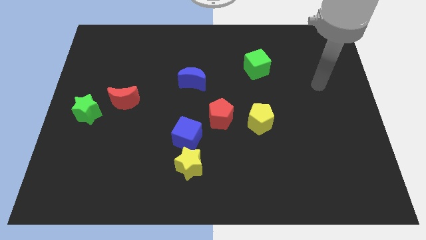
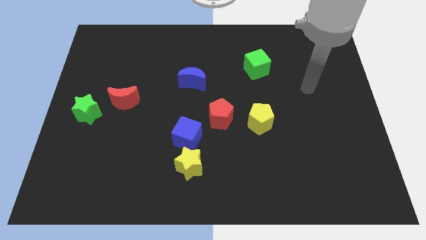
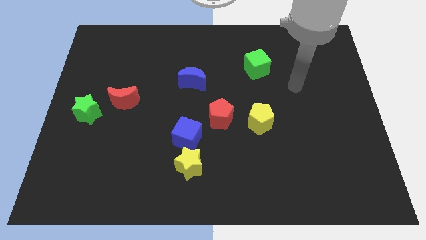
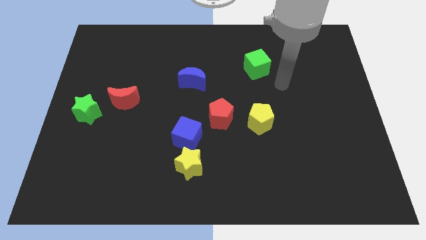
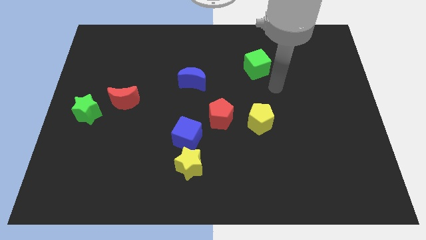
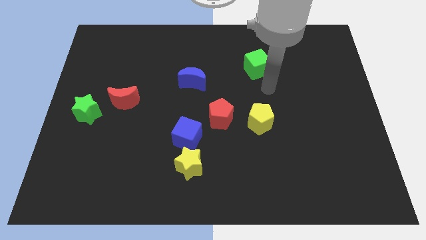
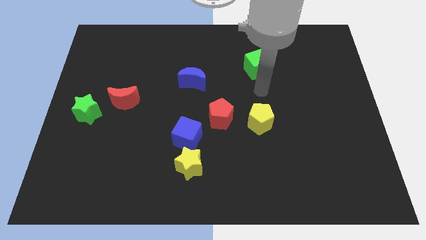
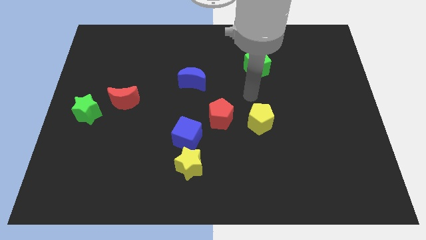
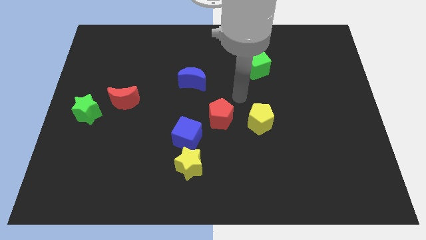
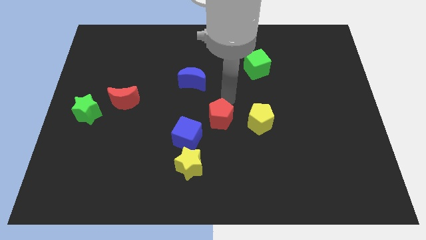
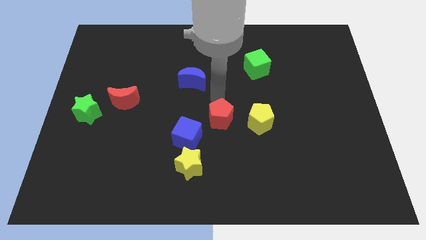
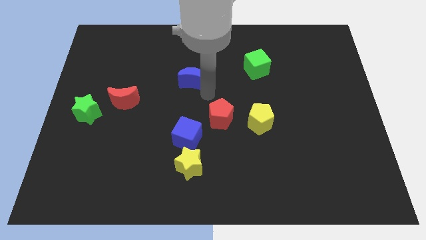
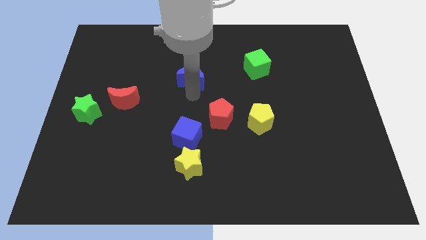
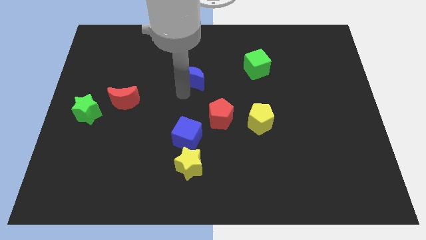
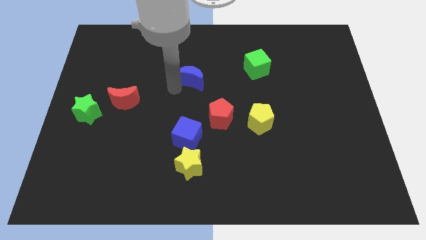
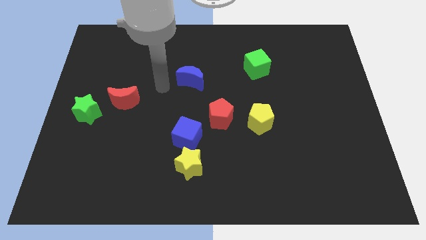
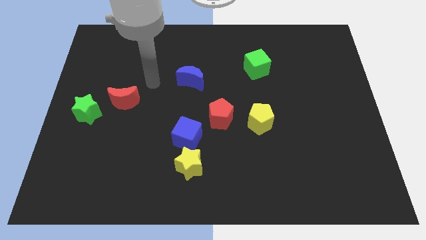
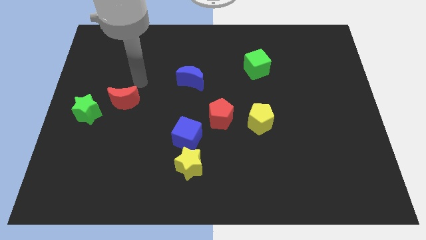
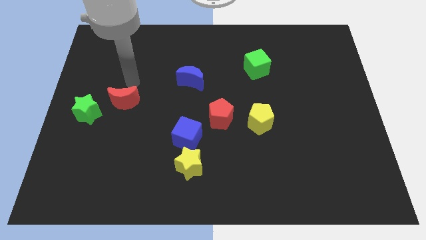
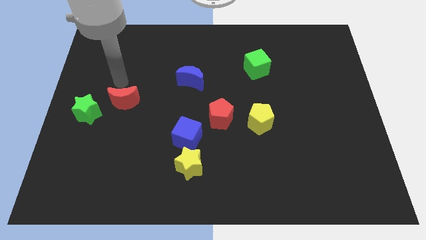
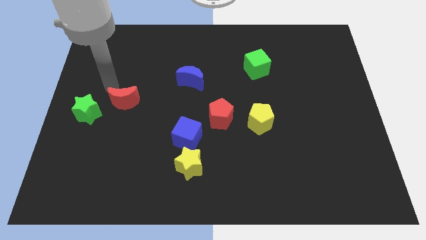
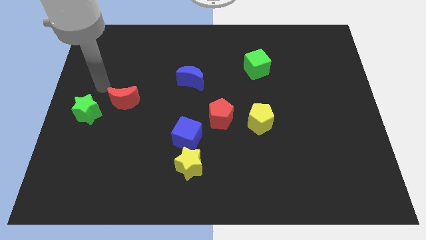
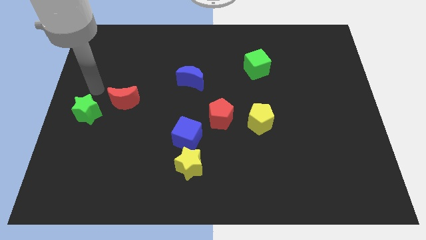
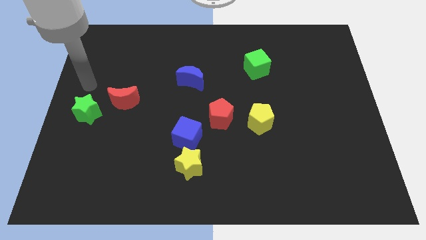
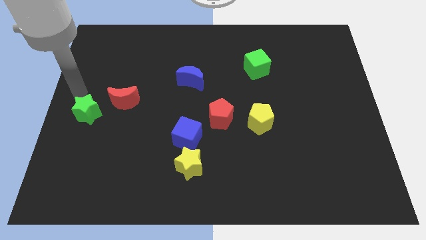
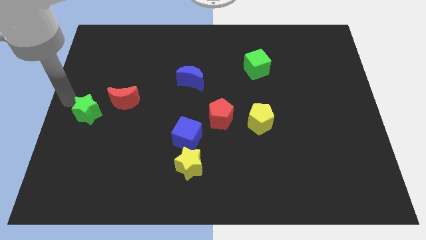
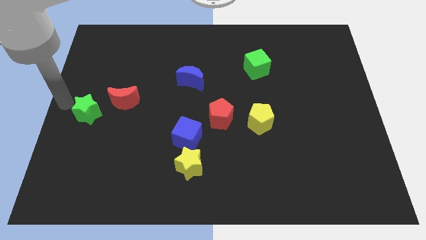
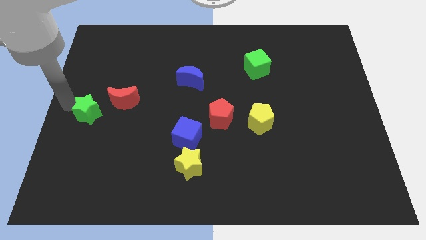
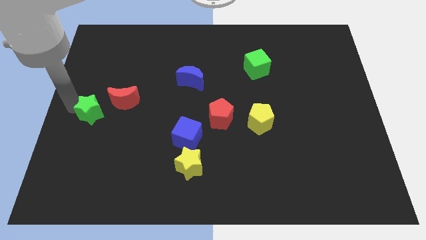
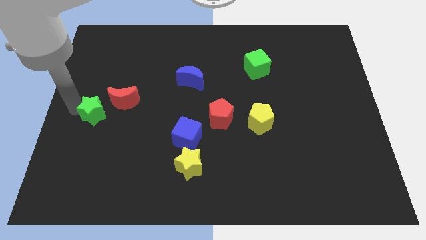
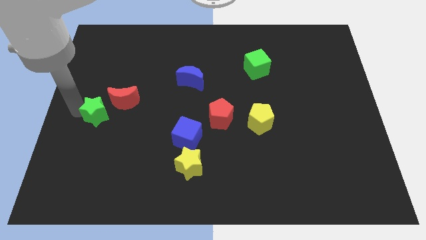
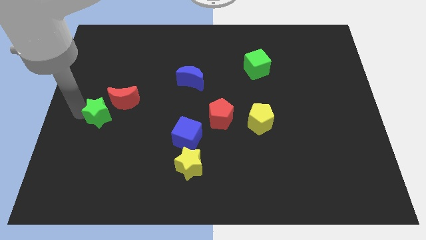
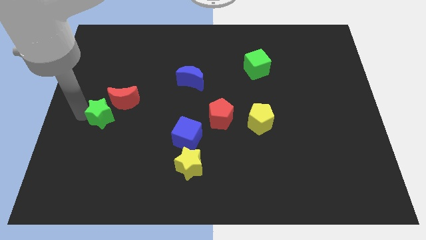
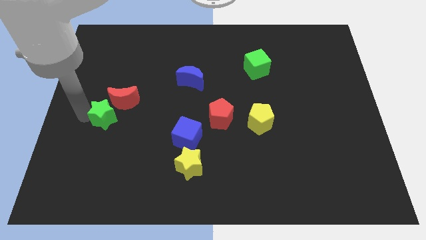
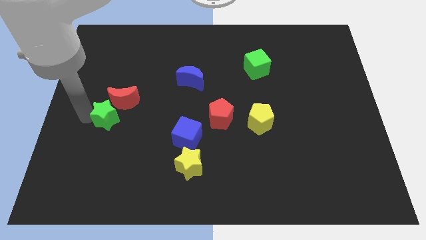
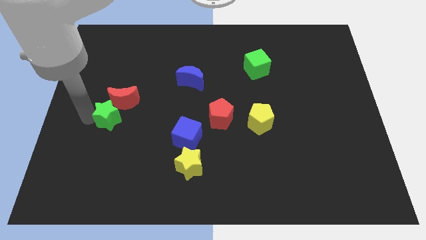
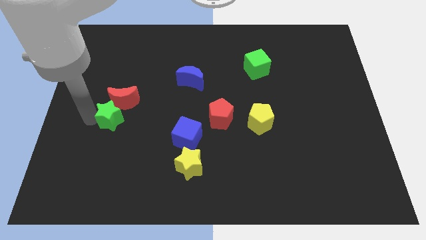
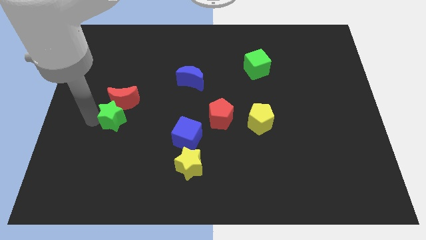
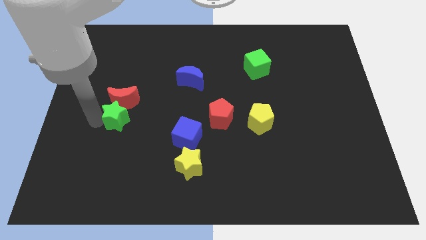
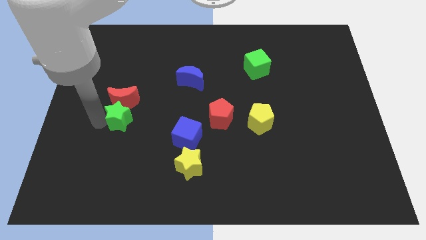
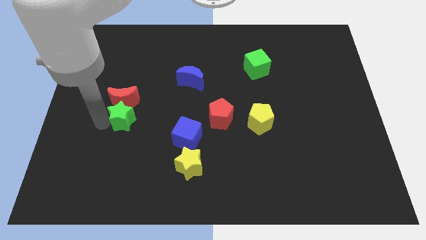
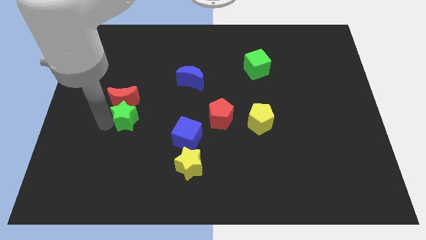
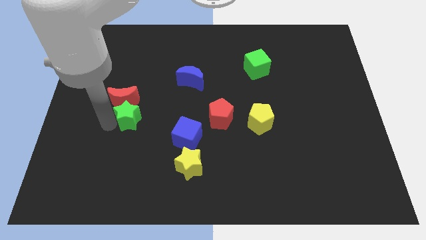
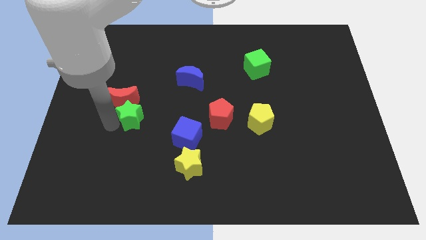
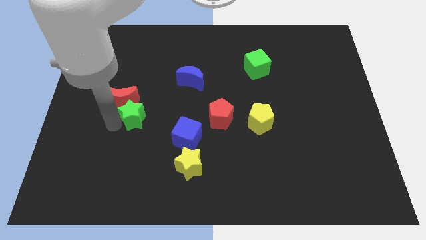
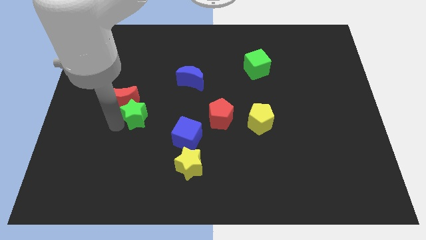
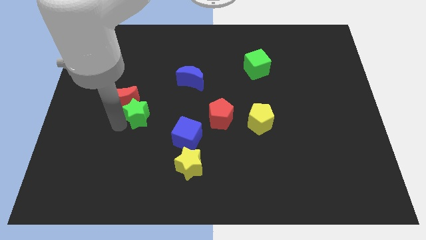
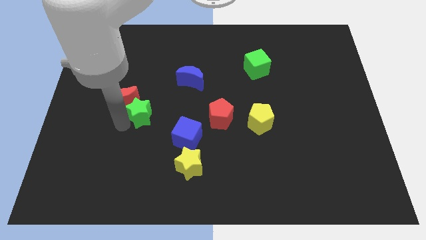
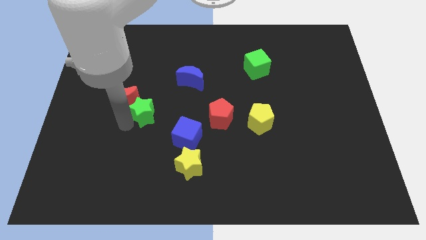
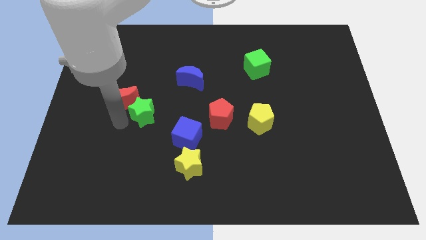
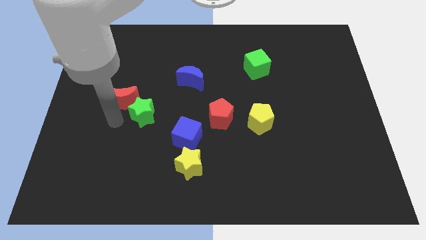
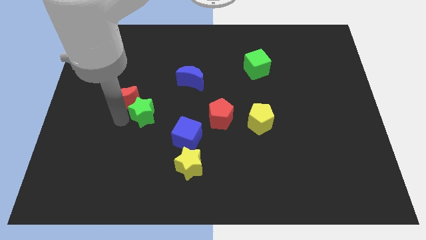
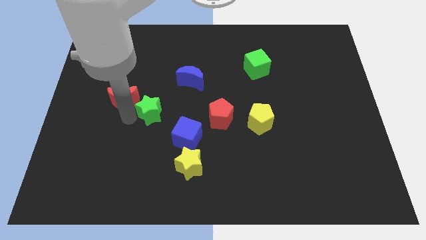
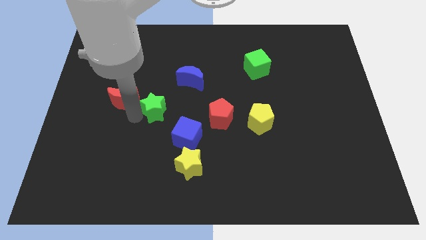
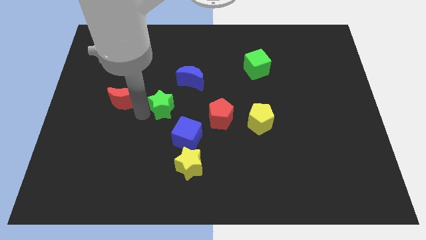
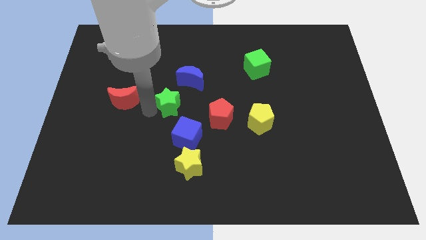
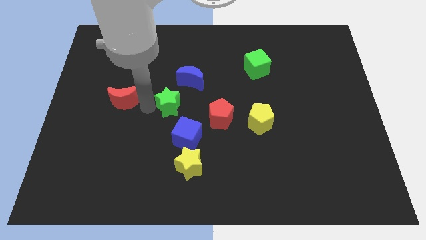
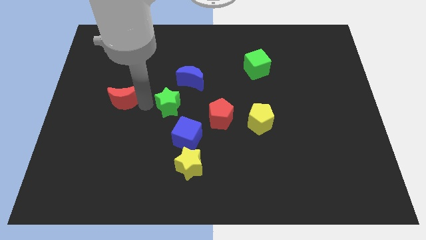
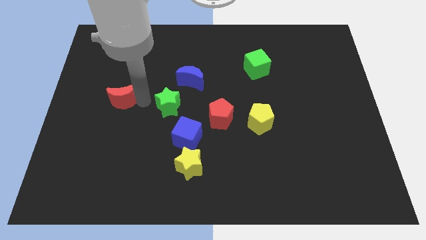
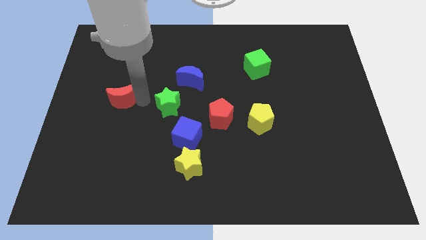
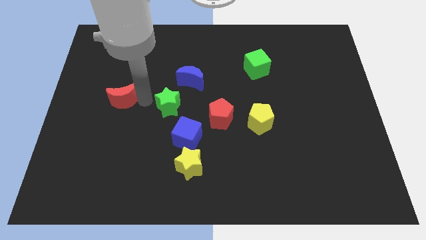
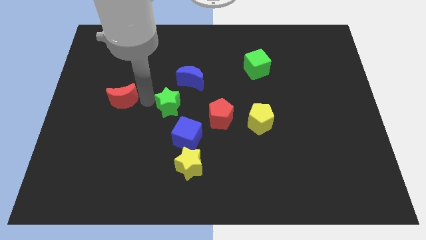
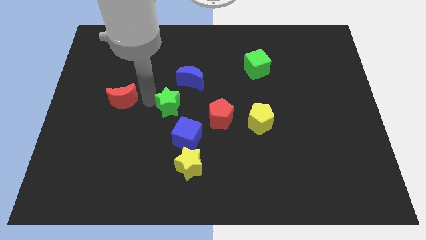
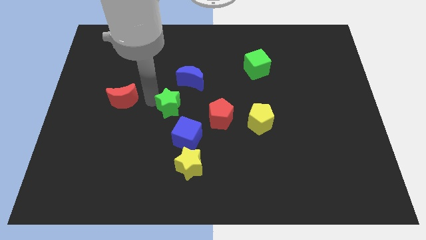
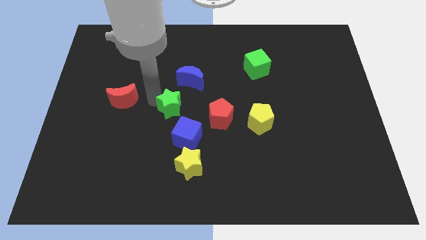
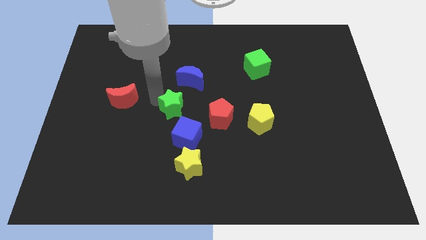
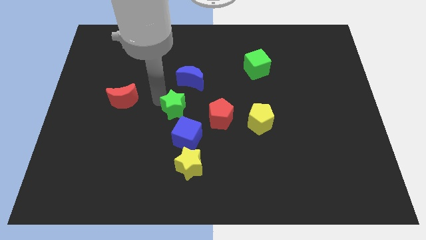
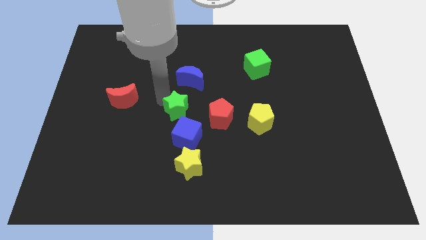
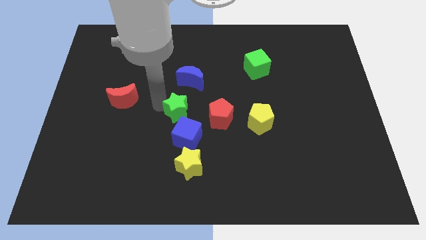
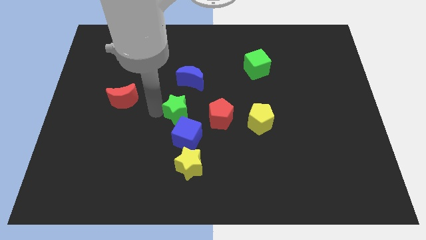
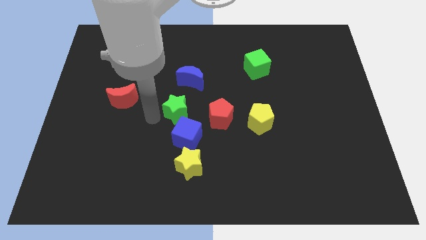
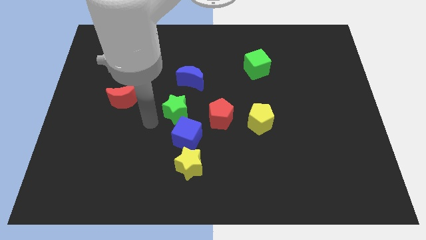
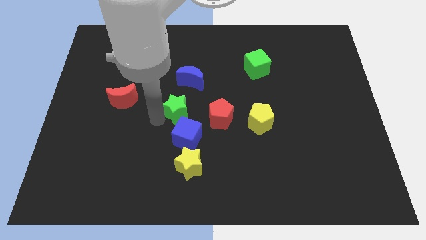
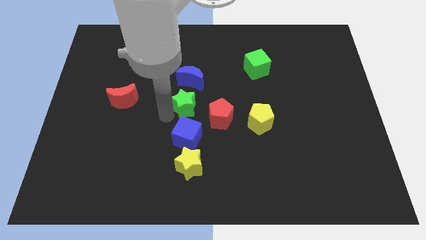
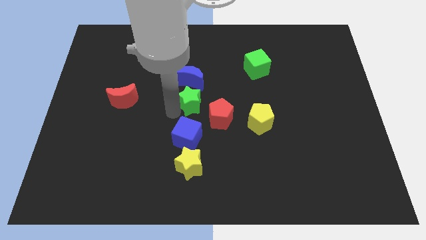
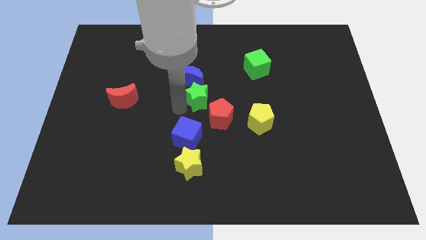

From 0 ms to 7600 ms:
push the green star diagonally down and to the right of the blue moon
